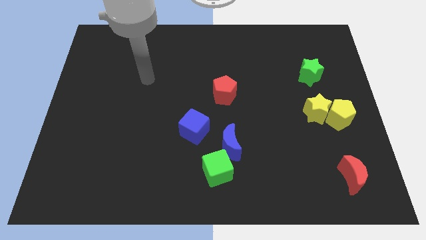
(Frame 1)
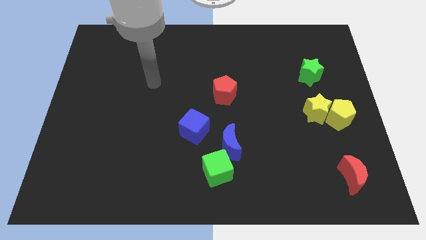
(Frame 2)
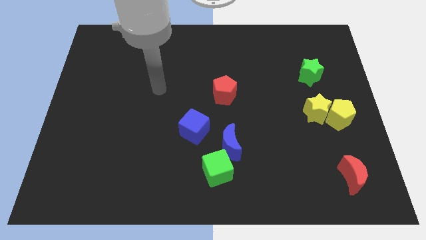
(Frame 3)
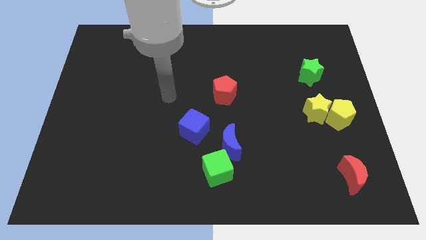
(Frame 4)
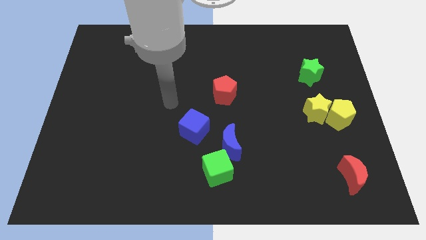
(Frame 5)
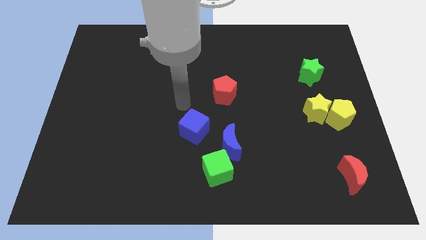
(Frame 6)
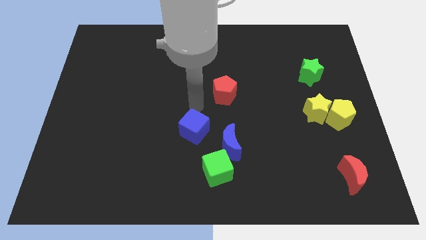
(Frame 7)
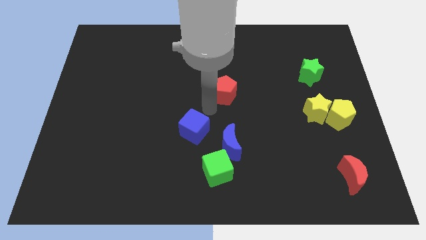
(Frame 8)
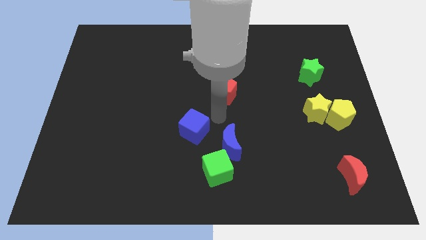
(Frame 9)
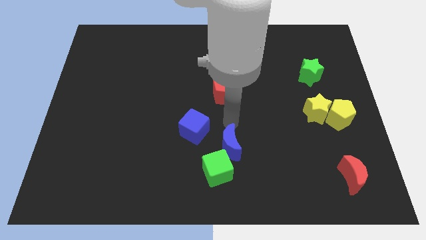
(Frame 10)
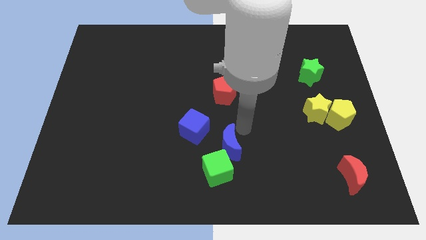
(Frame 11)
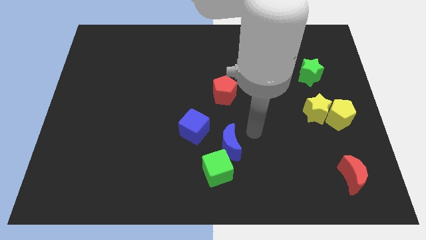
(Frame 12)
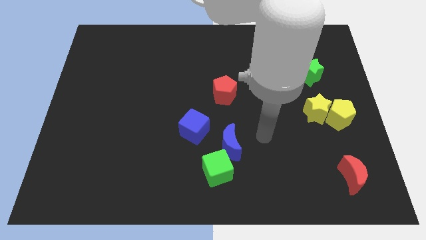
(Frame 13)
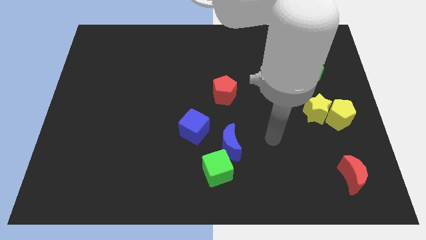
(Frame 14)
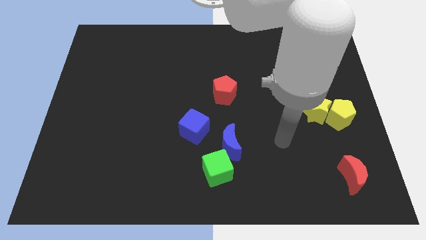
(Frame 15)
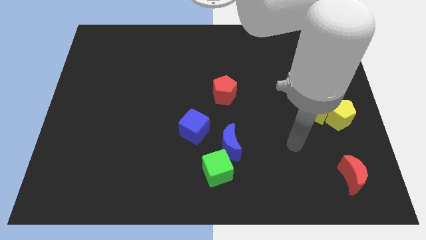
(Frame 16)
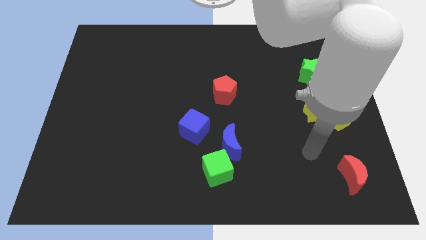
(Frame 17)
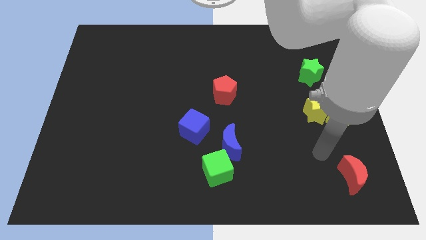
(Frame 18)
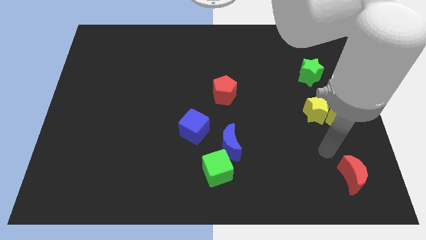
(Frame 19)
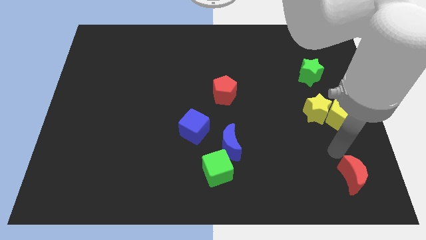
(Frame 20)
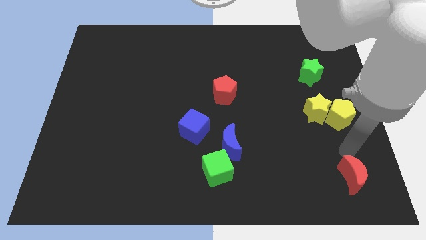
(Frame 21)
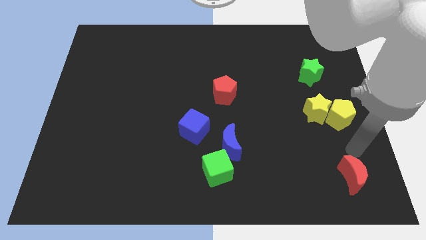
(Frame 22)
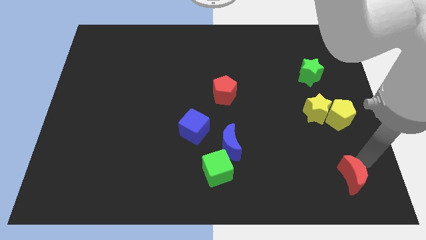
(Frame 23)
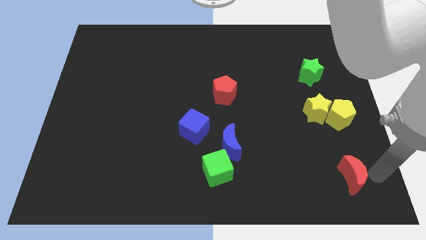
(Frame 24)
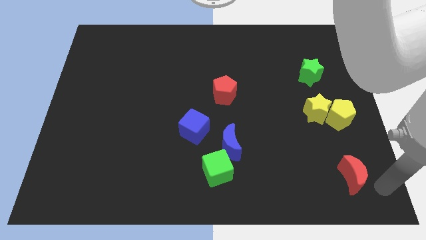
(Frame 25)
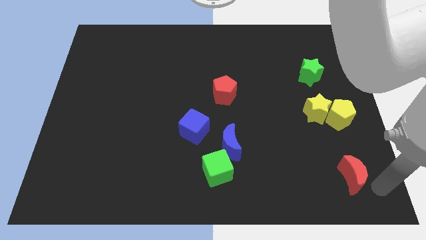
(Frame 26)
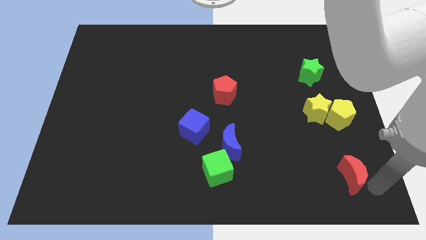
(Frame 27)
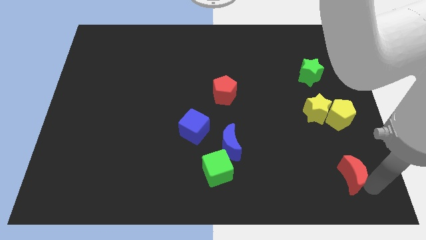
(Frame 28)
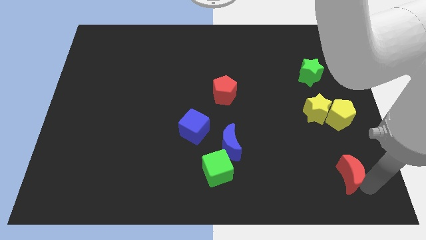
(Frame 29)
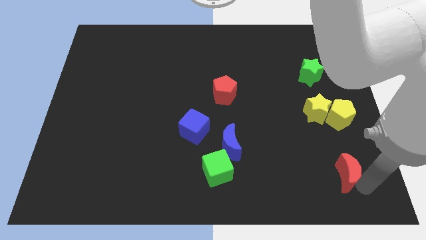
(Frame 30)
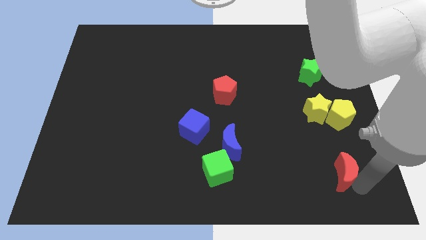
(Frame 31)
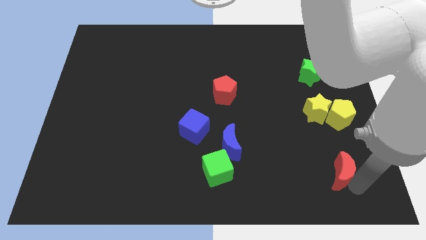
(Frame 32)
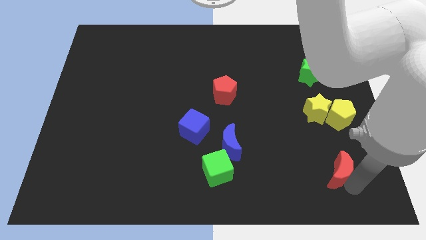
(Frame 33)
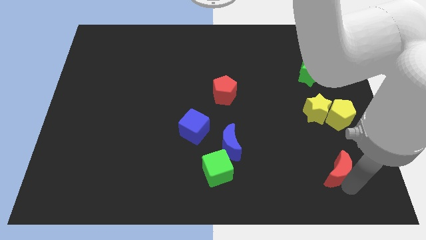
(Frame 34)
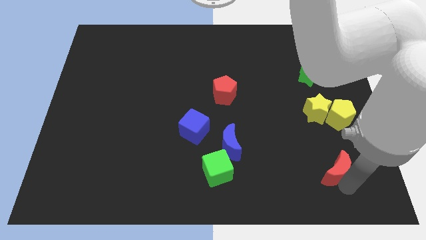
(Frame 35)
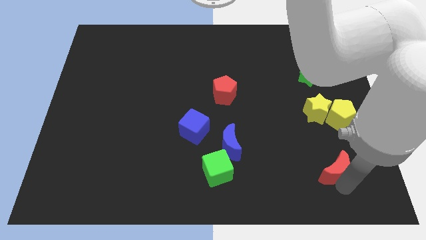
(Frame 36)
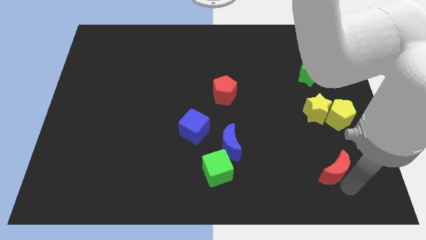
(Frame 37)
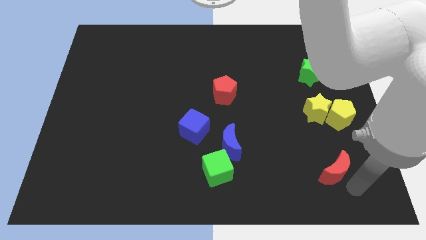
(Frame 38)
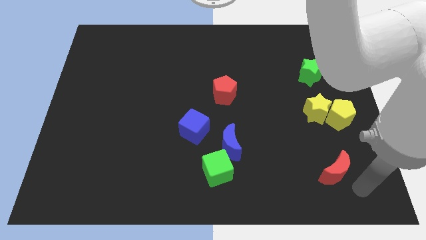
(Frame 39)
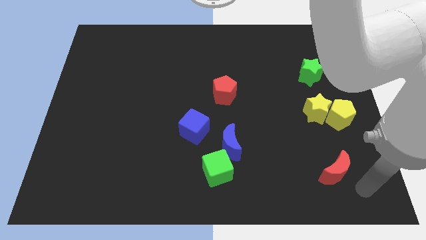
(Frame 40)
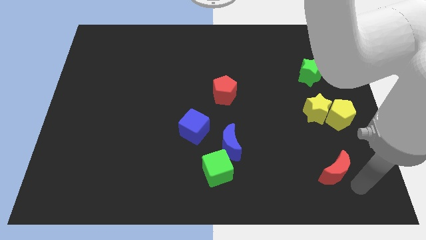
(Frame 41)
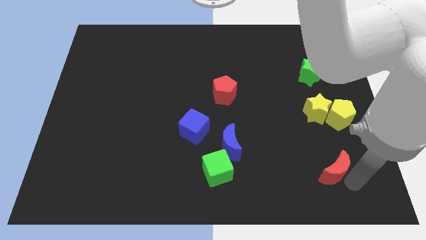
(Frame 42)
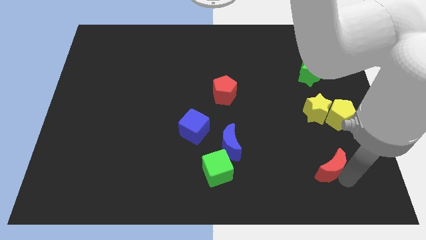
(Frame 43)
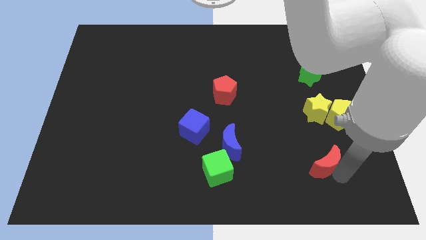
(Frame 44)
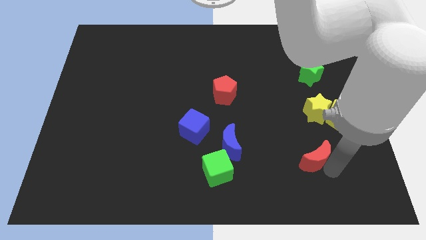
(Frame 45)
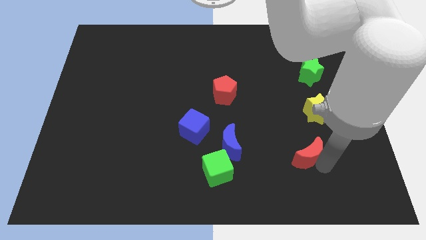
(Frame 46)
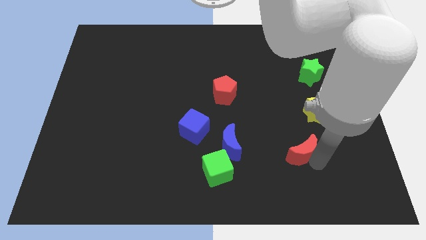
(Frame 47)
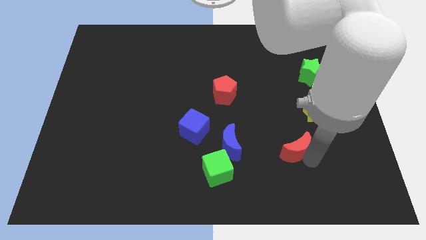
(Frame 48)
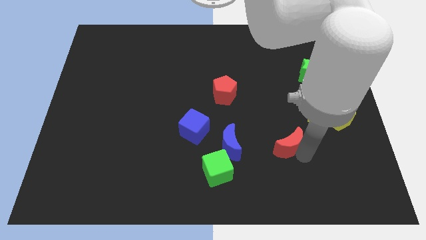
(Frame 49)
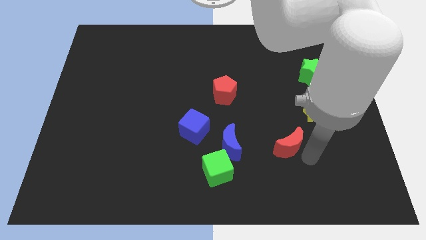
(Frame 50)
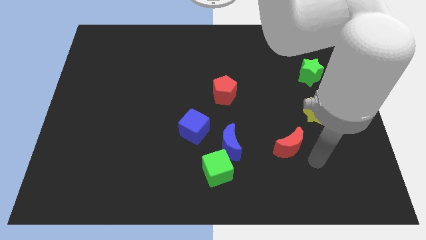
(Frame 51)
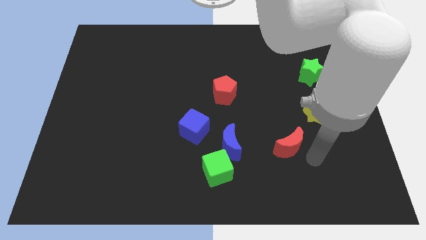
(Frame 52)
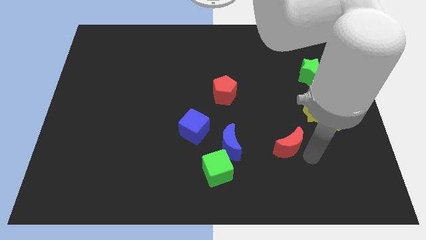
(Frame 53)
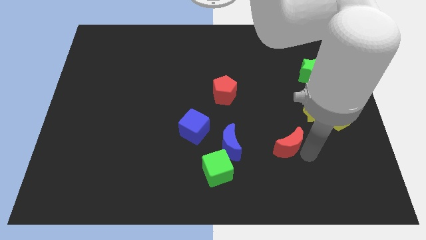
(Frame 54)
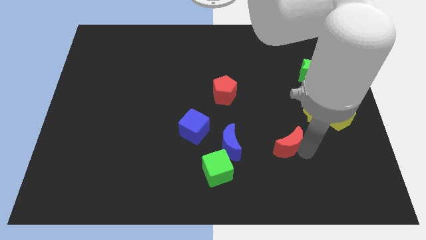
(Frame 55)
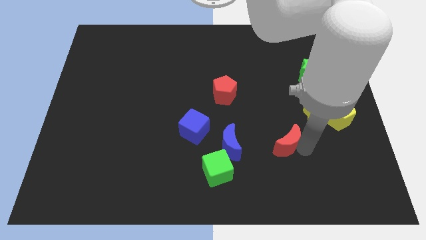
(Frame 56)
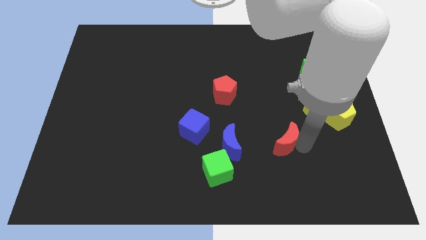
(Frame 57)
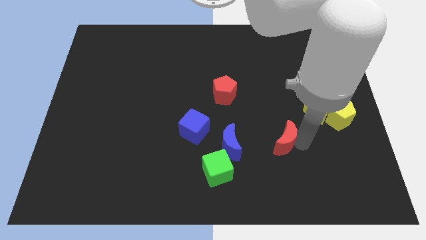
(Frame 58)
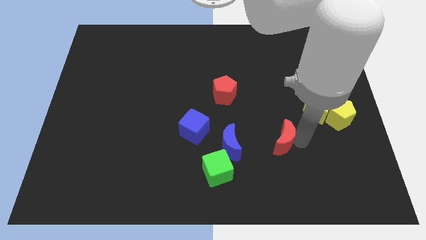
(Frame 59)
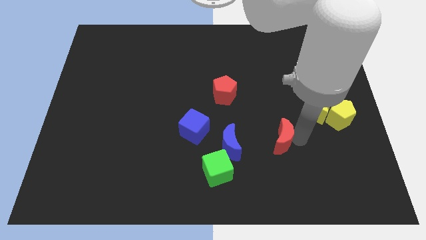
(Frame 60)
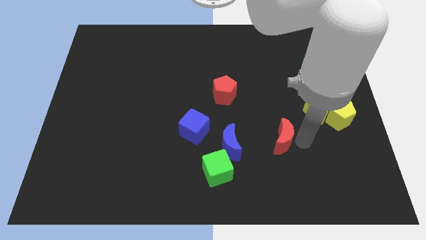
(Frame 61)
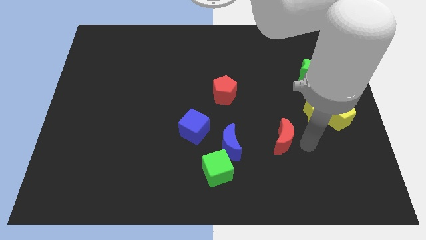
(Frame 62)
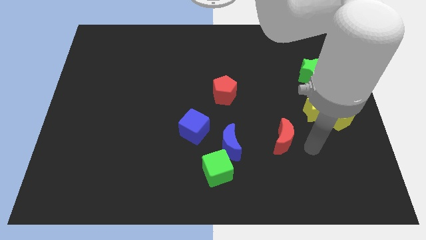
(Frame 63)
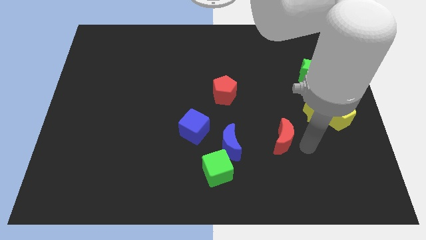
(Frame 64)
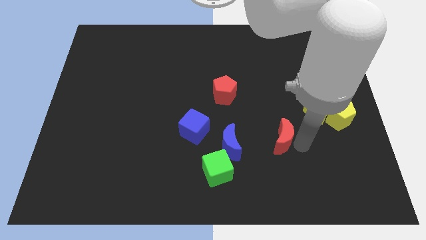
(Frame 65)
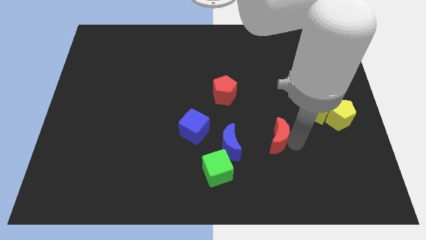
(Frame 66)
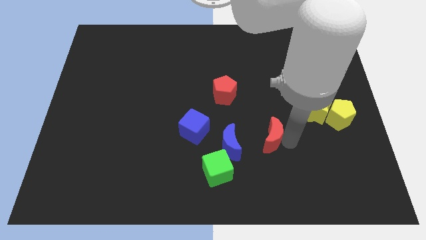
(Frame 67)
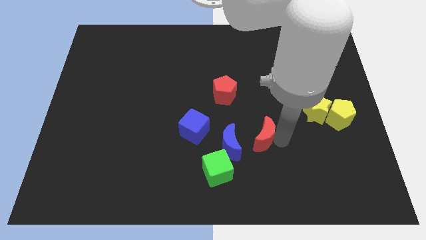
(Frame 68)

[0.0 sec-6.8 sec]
move the red moon right of the blue cube

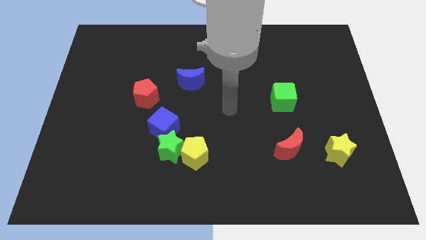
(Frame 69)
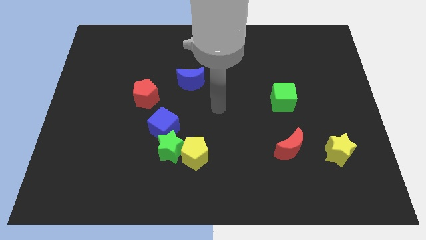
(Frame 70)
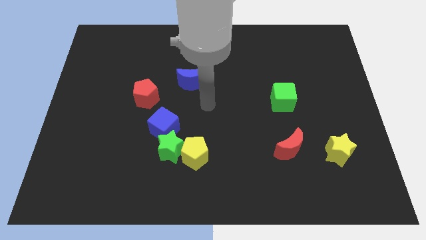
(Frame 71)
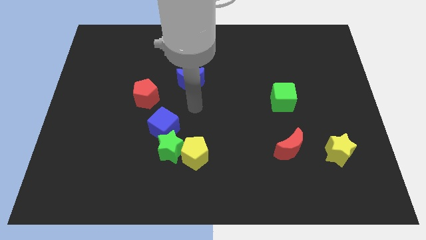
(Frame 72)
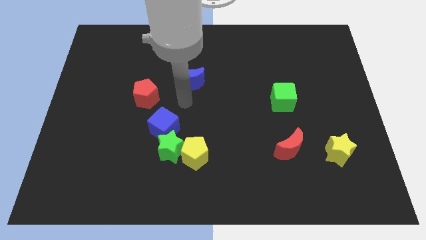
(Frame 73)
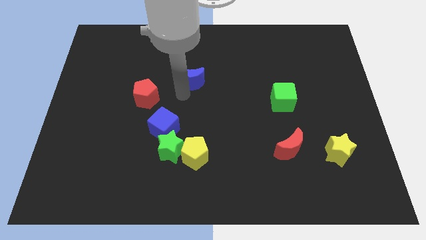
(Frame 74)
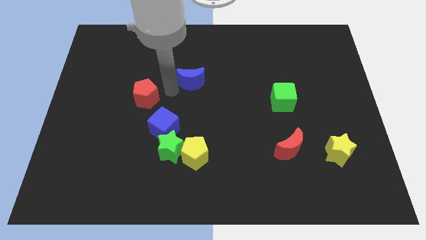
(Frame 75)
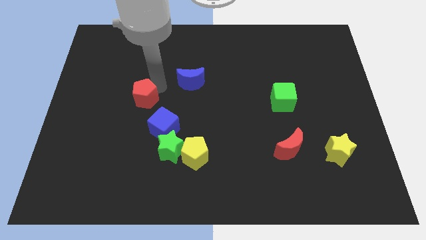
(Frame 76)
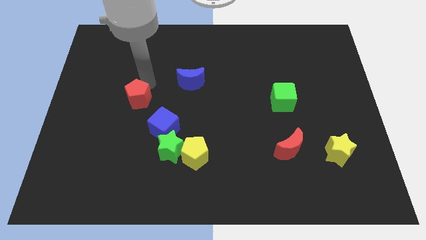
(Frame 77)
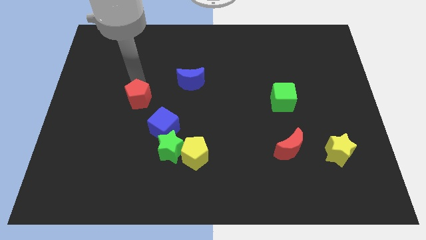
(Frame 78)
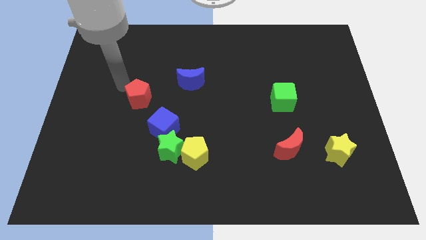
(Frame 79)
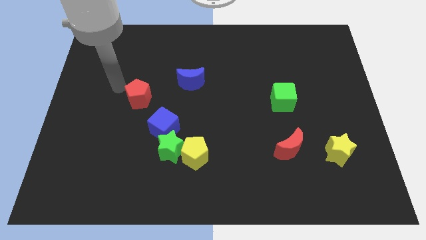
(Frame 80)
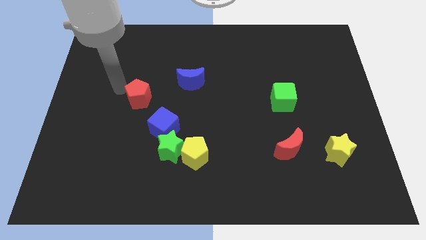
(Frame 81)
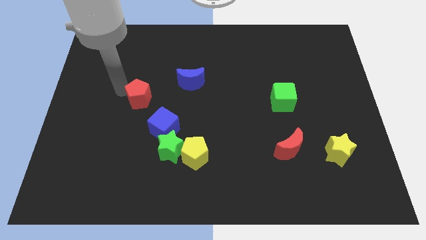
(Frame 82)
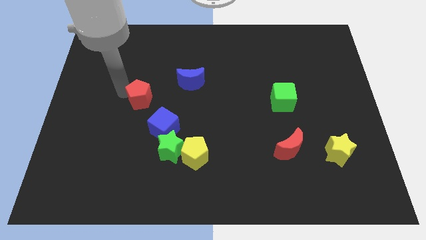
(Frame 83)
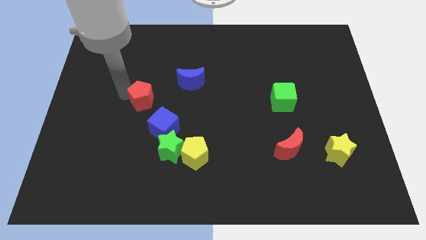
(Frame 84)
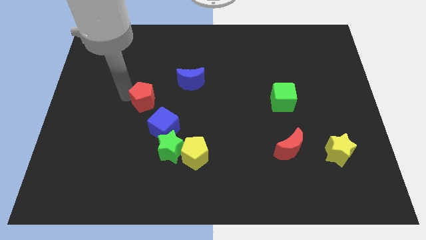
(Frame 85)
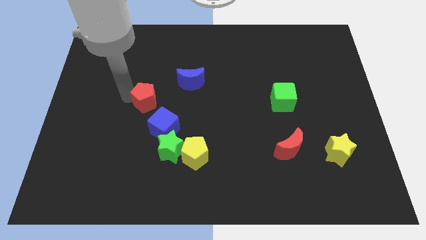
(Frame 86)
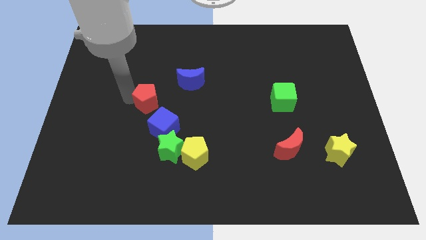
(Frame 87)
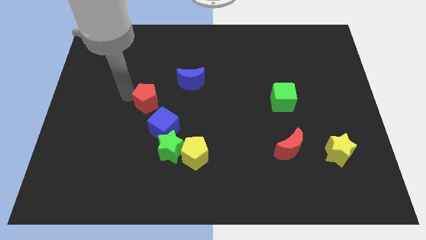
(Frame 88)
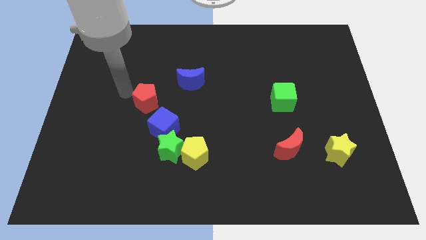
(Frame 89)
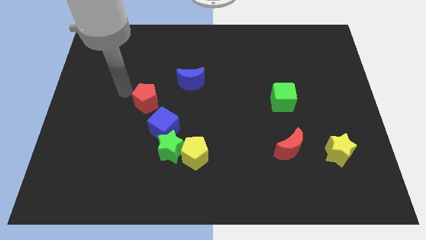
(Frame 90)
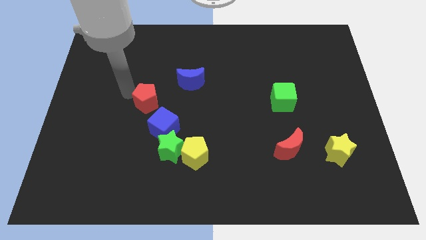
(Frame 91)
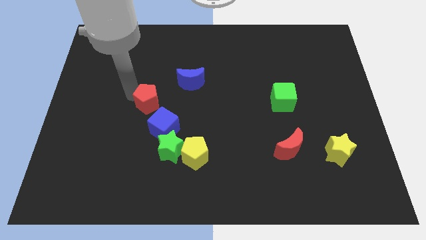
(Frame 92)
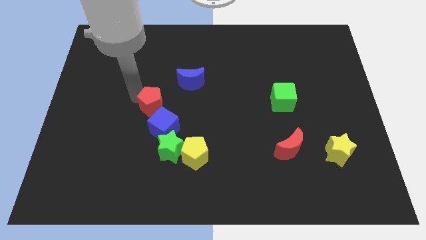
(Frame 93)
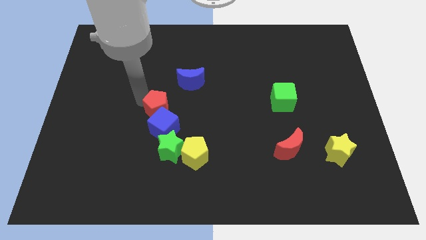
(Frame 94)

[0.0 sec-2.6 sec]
slide the red pentagon to the top of the green star
